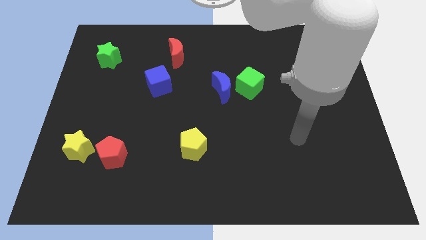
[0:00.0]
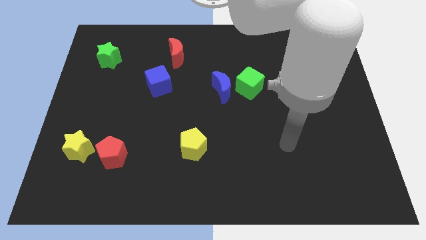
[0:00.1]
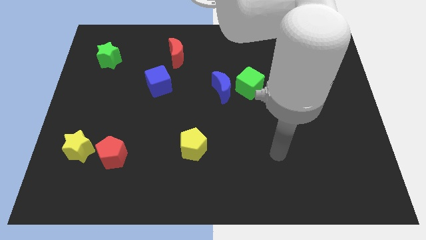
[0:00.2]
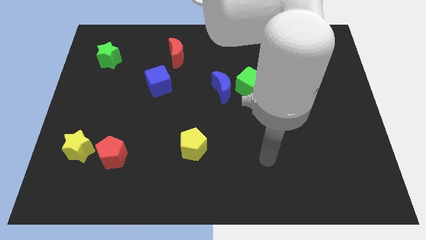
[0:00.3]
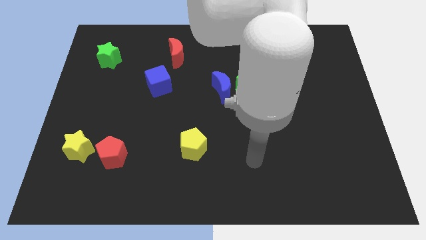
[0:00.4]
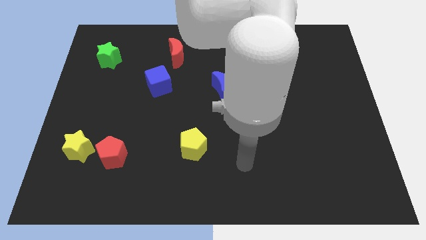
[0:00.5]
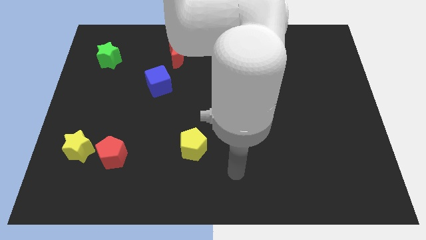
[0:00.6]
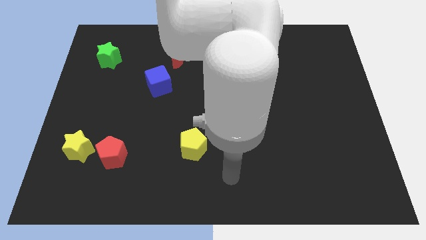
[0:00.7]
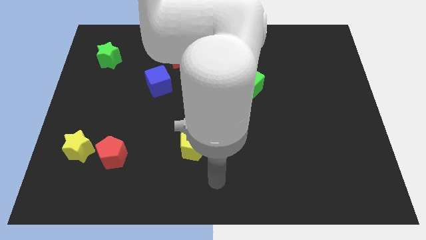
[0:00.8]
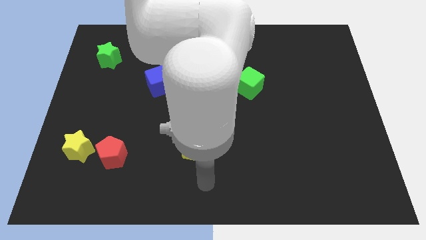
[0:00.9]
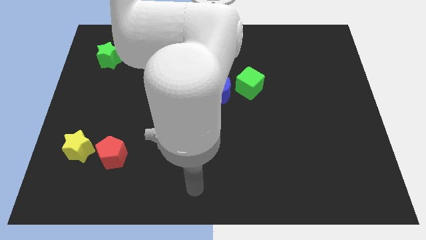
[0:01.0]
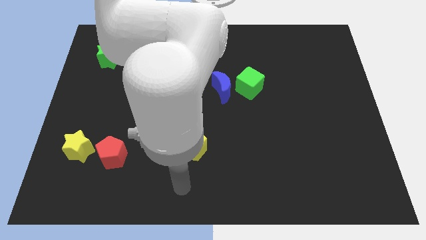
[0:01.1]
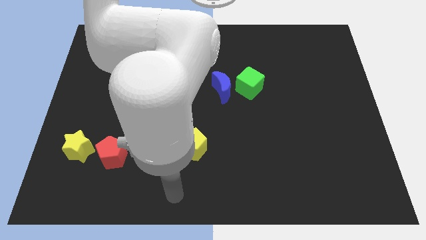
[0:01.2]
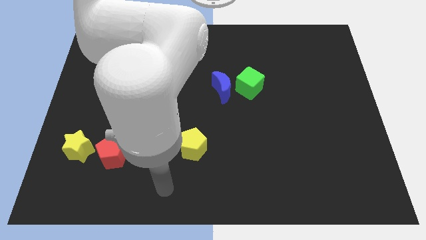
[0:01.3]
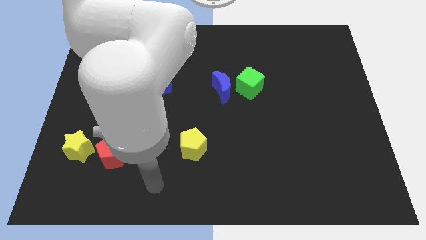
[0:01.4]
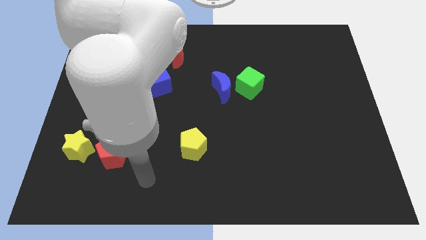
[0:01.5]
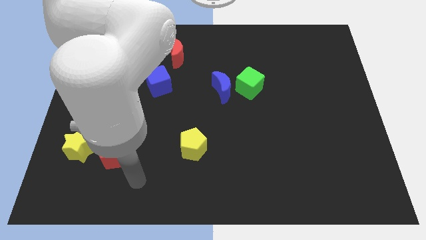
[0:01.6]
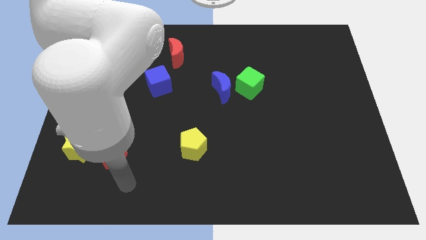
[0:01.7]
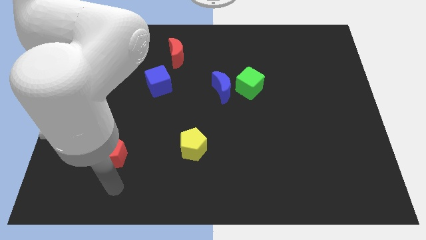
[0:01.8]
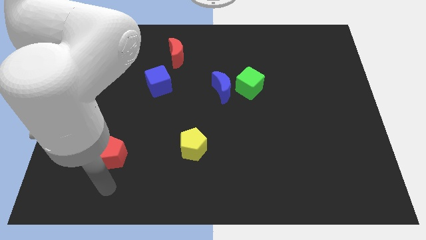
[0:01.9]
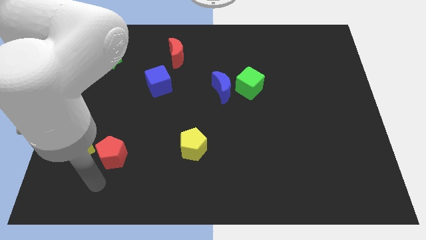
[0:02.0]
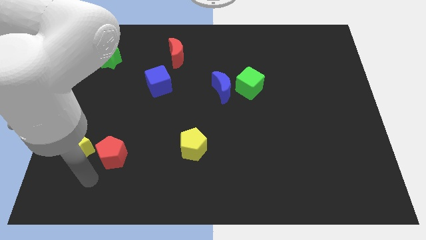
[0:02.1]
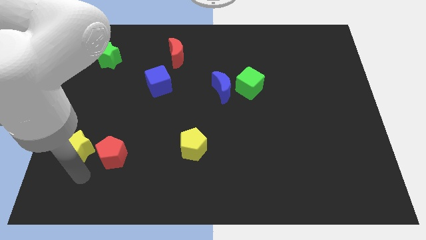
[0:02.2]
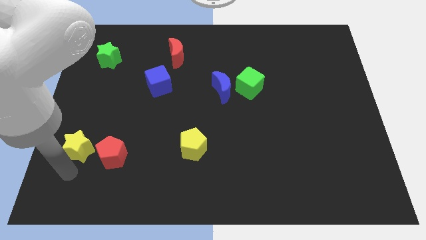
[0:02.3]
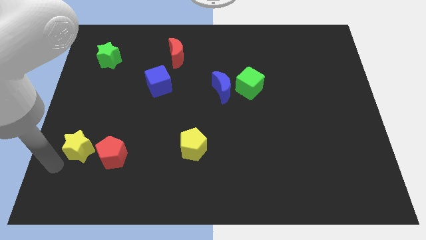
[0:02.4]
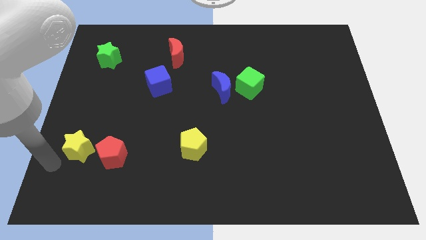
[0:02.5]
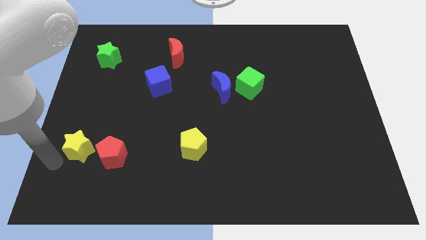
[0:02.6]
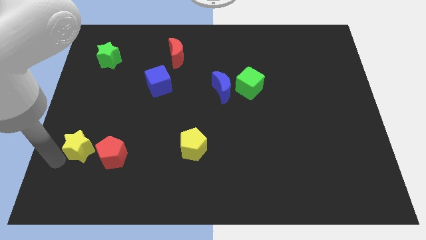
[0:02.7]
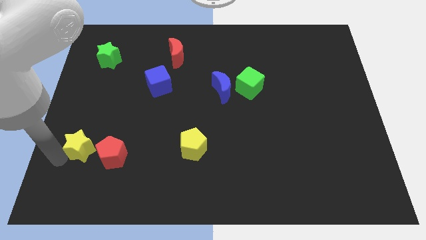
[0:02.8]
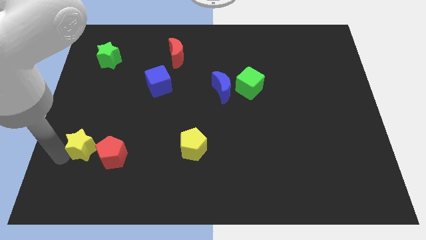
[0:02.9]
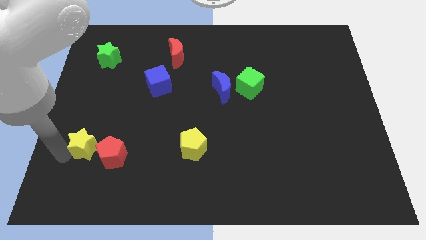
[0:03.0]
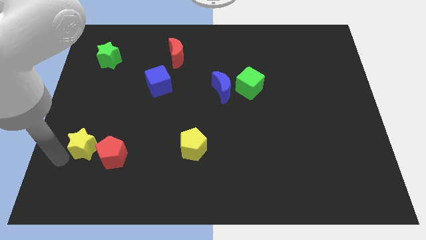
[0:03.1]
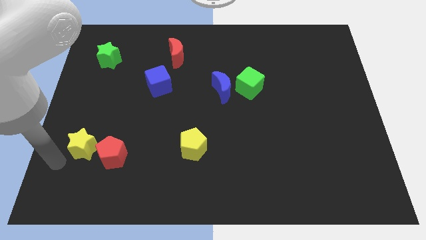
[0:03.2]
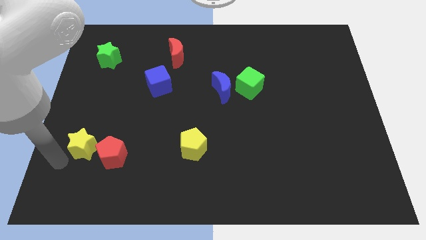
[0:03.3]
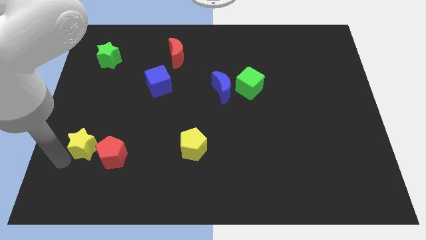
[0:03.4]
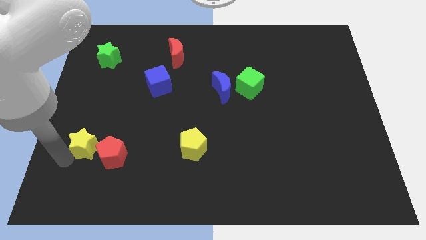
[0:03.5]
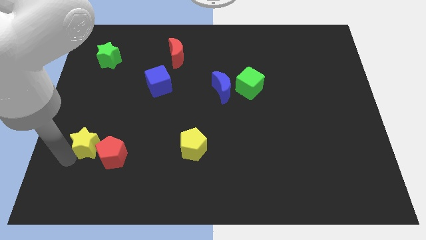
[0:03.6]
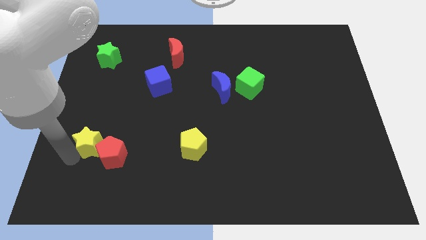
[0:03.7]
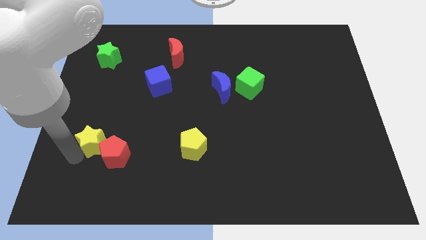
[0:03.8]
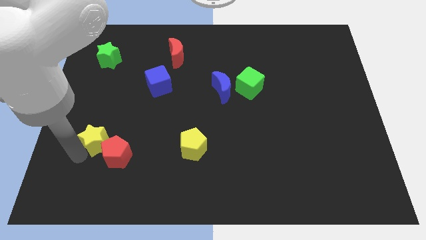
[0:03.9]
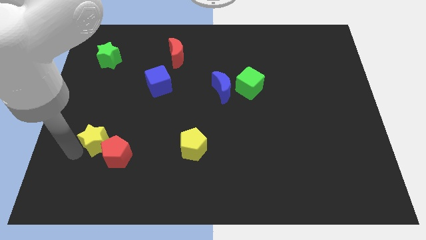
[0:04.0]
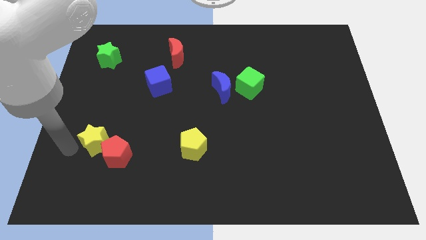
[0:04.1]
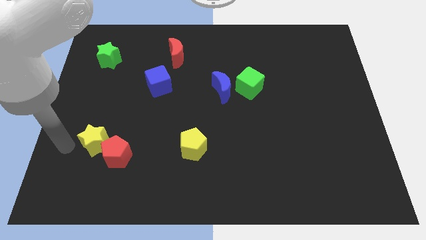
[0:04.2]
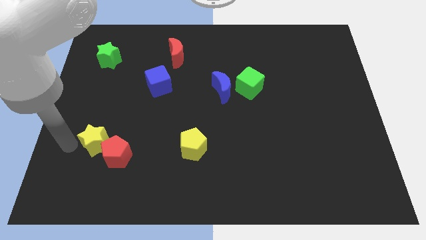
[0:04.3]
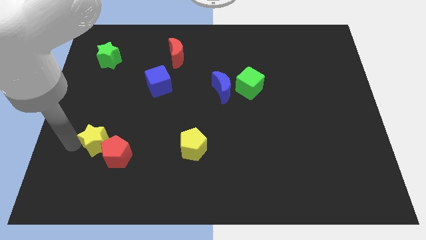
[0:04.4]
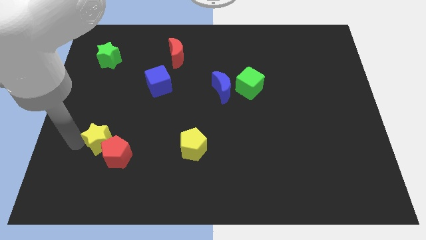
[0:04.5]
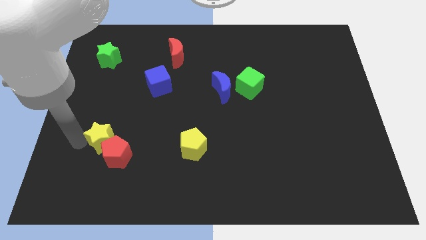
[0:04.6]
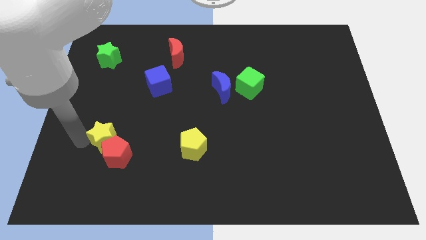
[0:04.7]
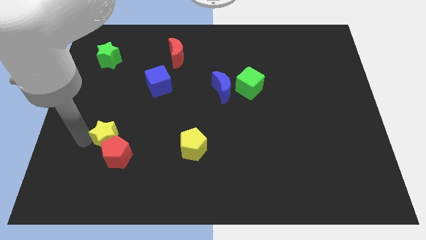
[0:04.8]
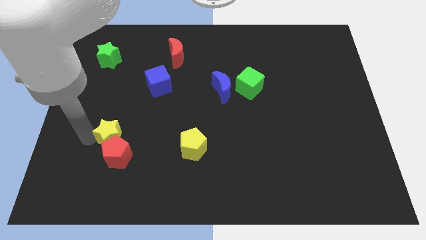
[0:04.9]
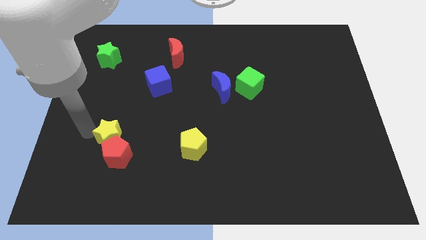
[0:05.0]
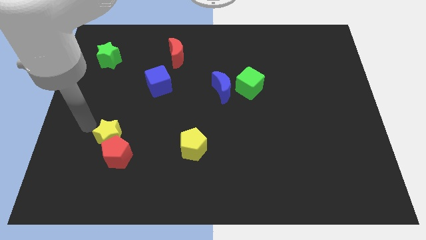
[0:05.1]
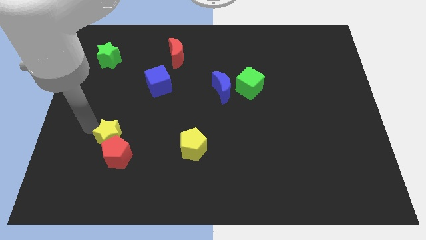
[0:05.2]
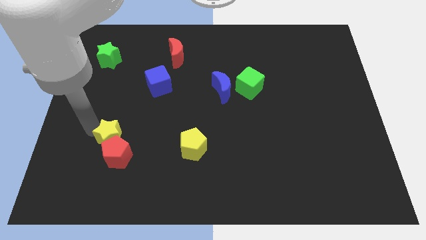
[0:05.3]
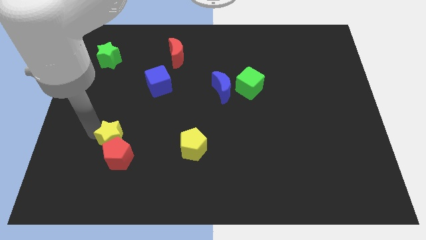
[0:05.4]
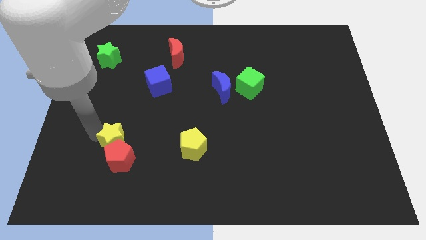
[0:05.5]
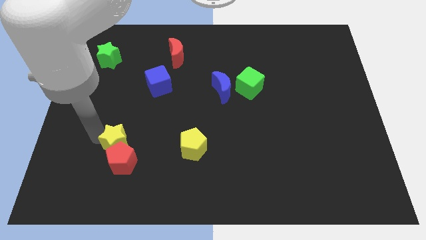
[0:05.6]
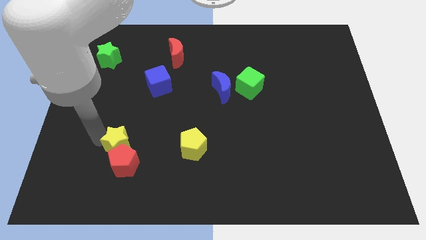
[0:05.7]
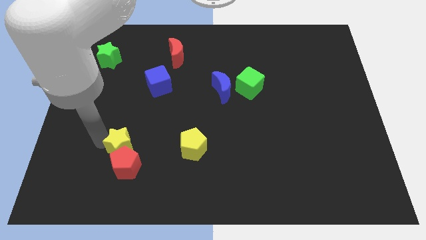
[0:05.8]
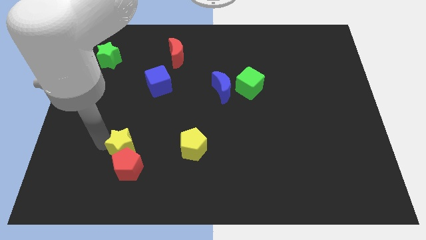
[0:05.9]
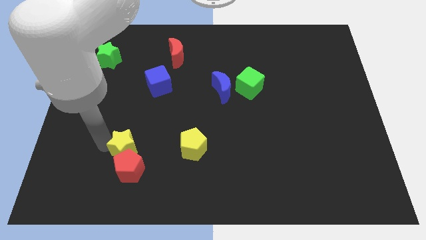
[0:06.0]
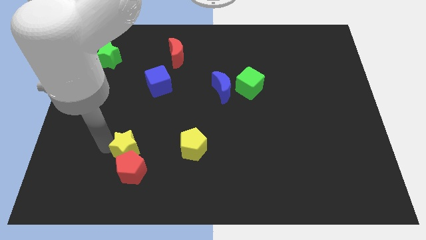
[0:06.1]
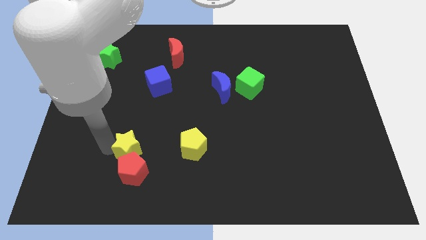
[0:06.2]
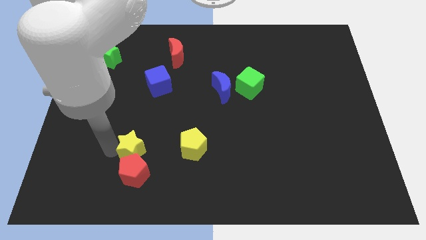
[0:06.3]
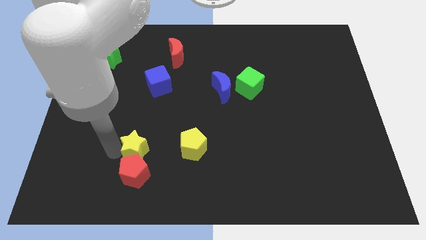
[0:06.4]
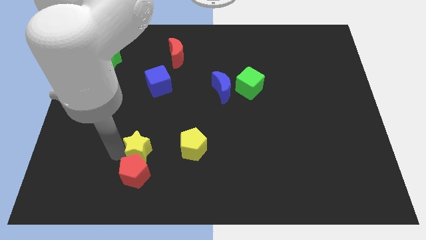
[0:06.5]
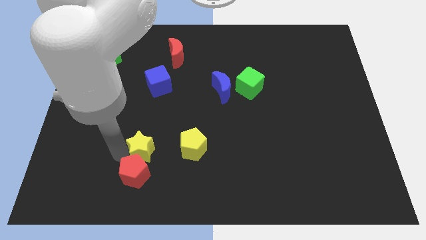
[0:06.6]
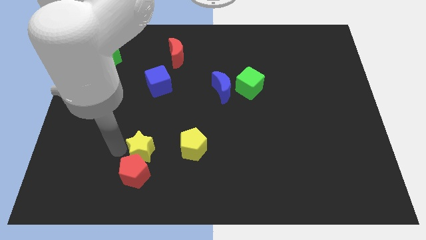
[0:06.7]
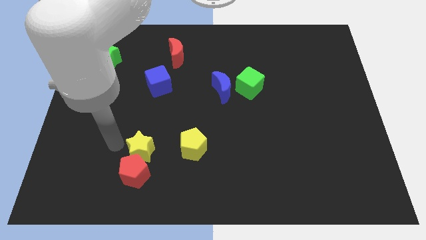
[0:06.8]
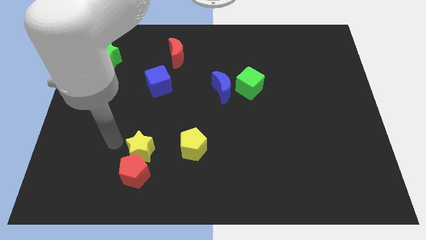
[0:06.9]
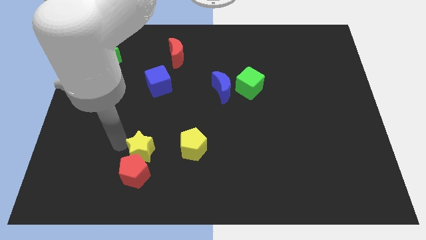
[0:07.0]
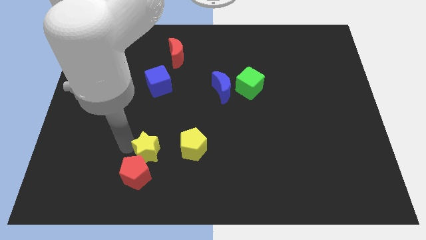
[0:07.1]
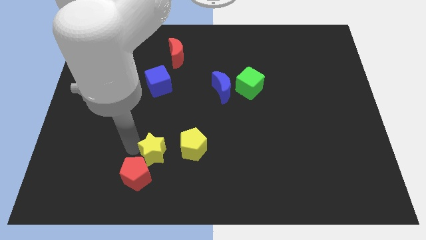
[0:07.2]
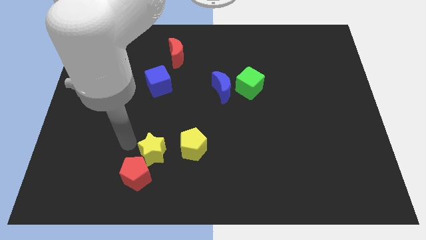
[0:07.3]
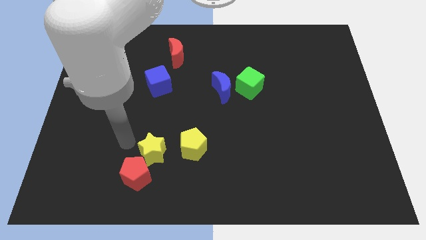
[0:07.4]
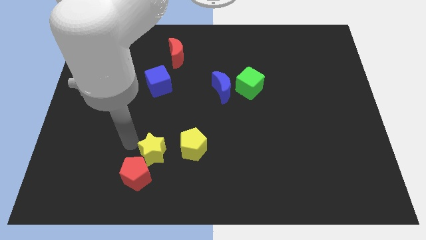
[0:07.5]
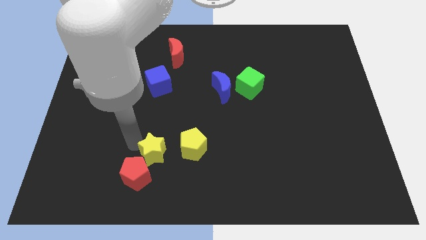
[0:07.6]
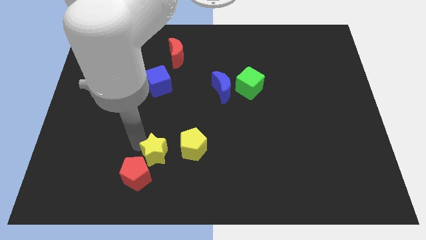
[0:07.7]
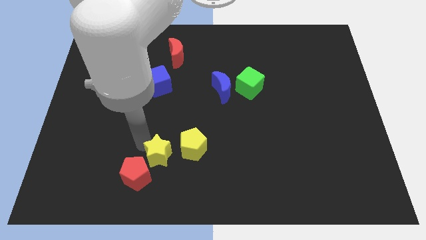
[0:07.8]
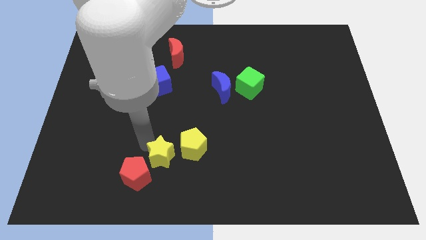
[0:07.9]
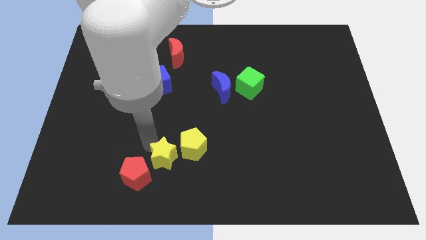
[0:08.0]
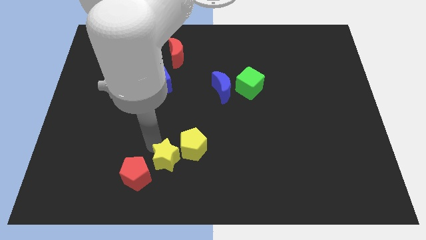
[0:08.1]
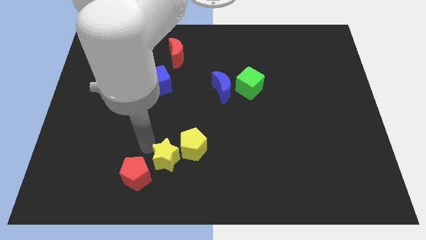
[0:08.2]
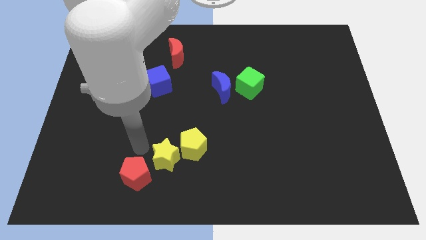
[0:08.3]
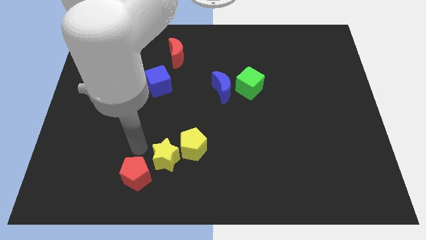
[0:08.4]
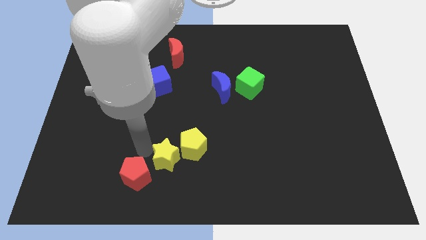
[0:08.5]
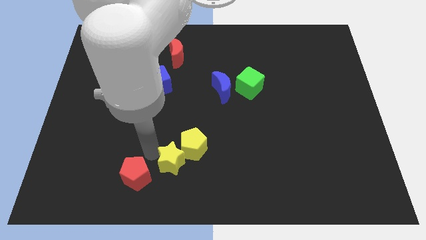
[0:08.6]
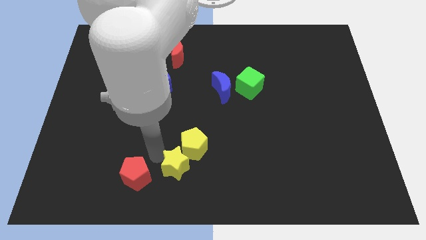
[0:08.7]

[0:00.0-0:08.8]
push the yellow star right
